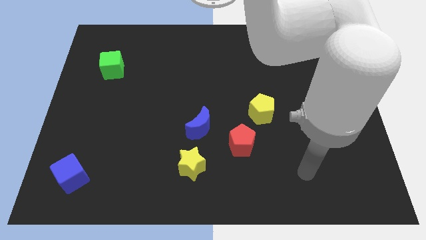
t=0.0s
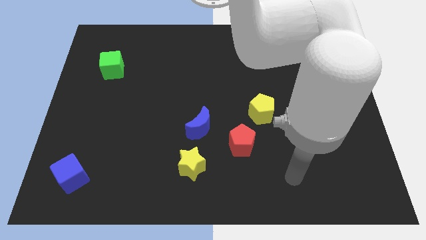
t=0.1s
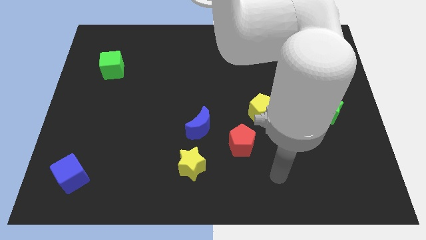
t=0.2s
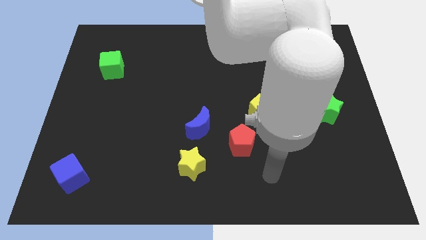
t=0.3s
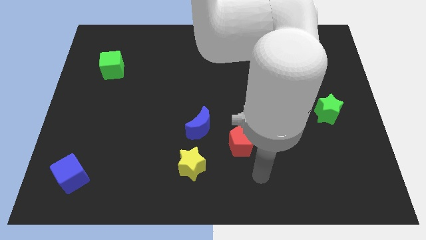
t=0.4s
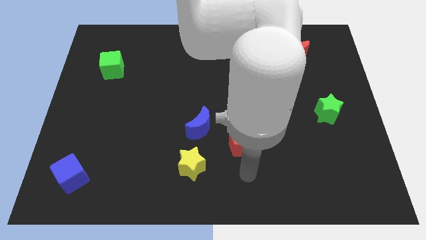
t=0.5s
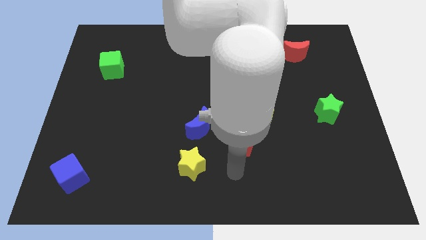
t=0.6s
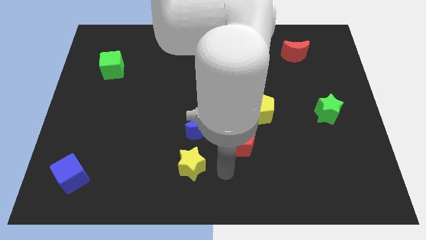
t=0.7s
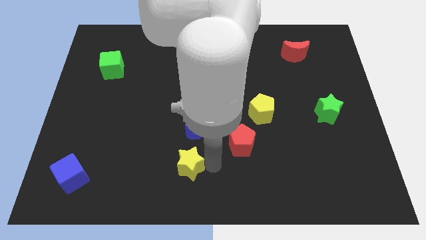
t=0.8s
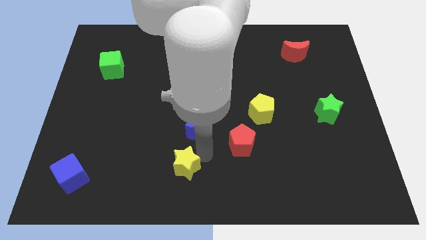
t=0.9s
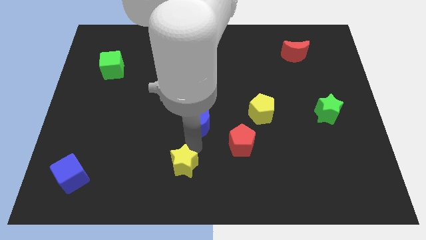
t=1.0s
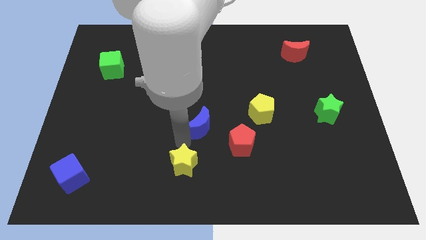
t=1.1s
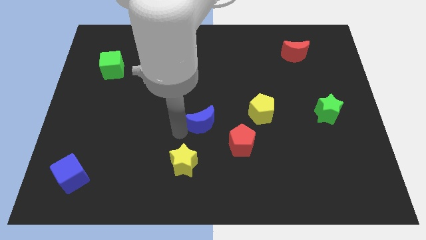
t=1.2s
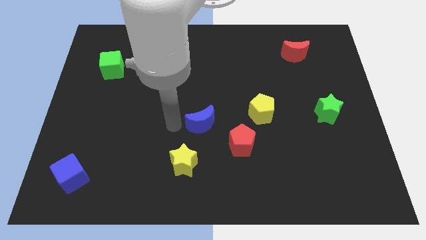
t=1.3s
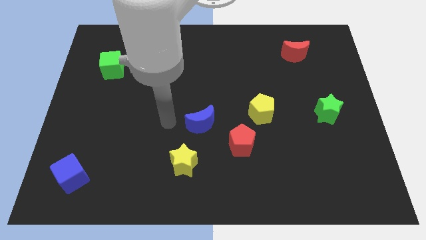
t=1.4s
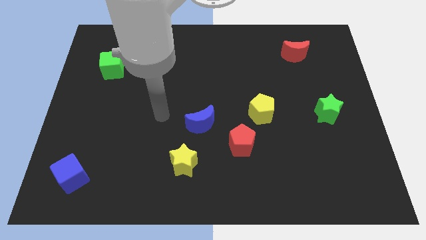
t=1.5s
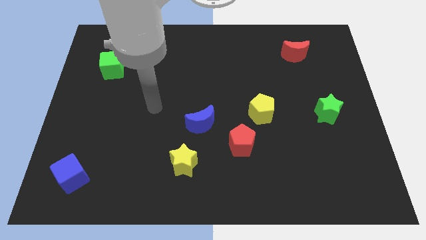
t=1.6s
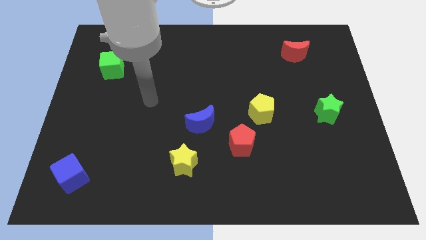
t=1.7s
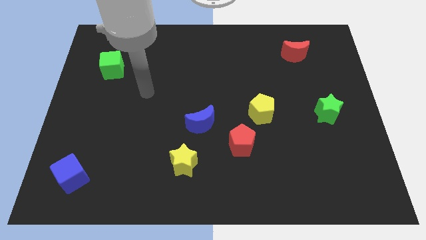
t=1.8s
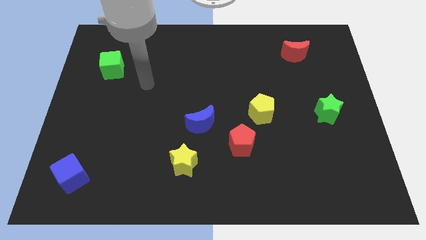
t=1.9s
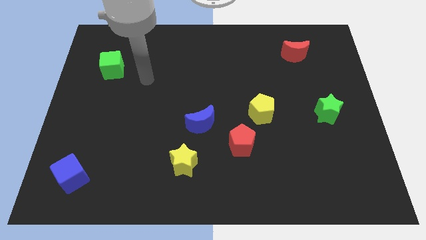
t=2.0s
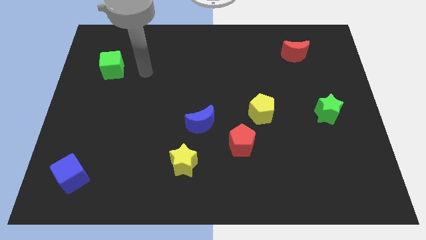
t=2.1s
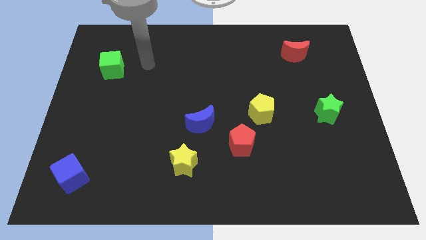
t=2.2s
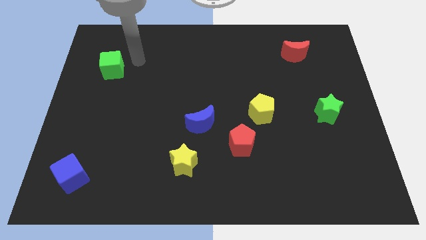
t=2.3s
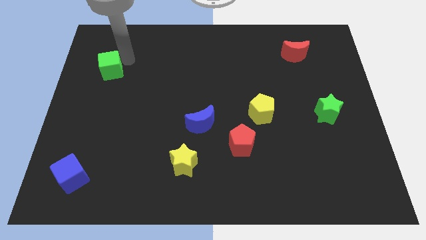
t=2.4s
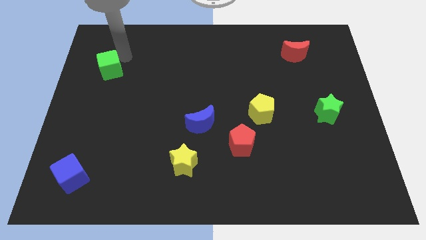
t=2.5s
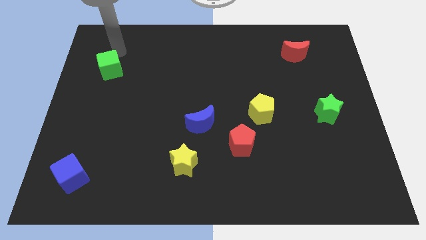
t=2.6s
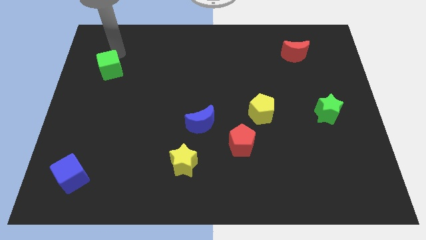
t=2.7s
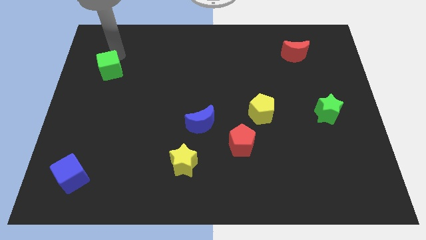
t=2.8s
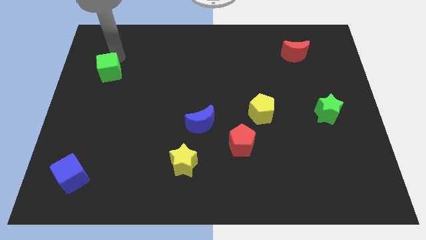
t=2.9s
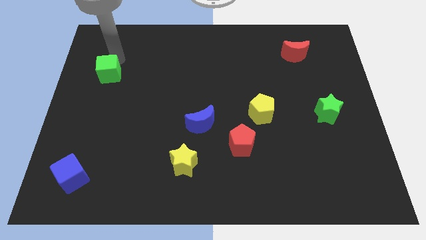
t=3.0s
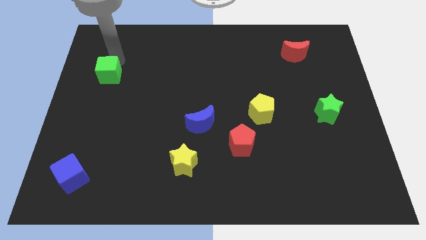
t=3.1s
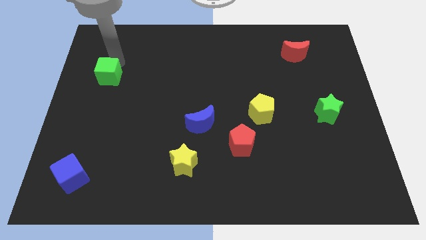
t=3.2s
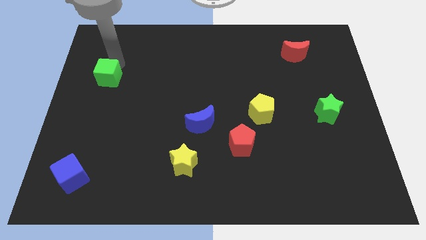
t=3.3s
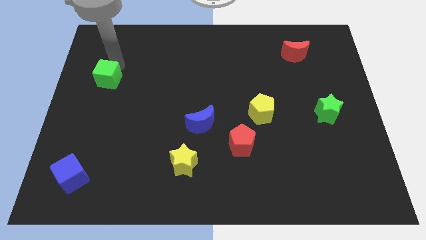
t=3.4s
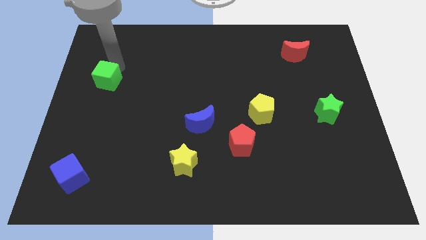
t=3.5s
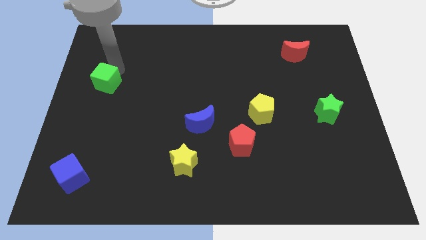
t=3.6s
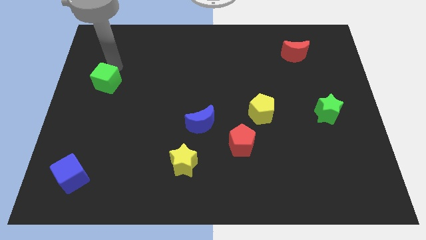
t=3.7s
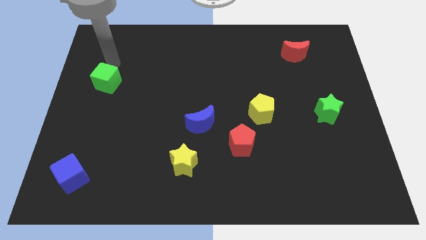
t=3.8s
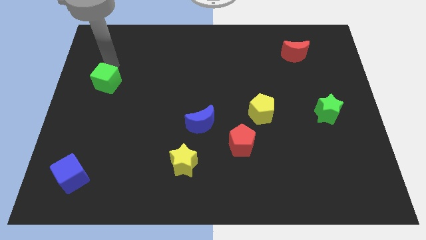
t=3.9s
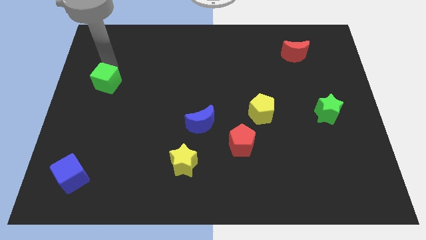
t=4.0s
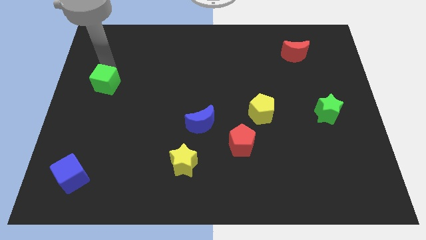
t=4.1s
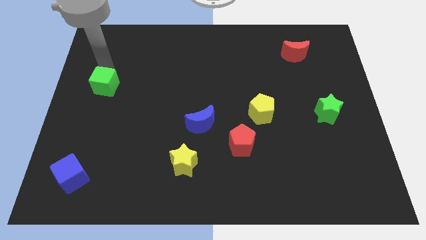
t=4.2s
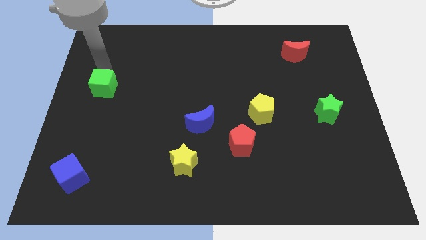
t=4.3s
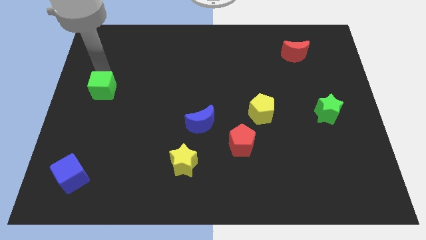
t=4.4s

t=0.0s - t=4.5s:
slightly slide the green cube downwards

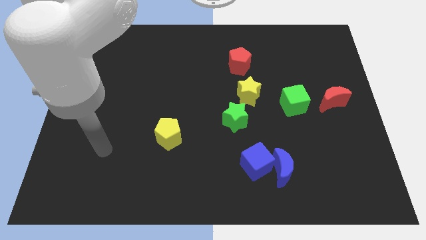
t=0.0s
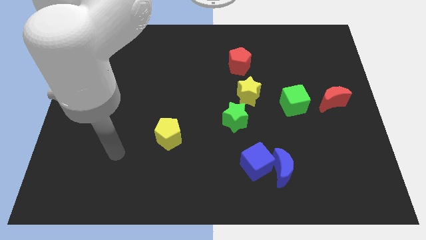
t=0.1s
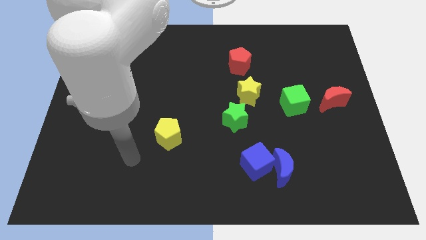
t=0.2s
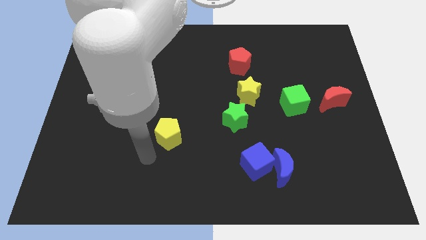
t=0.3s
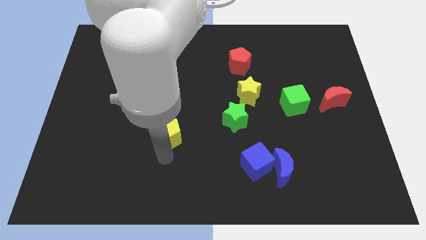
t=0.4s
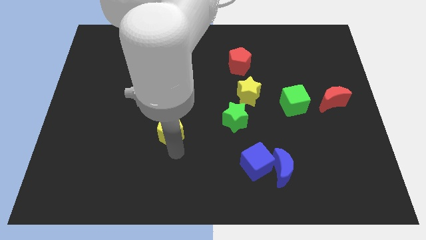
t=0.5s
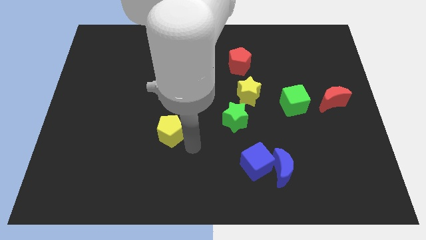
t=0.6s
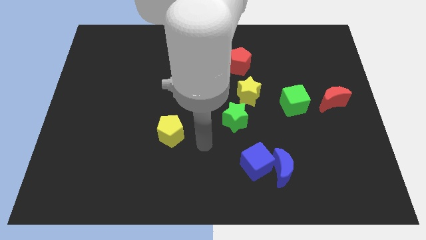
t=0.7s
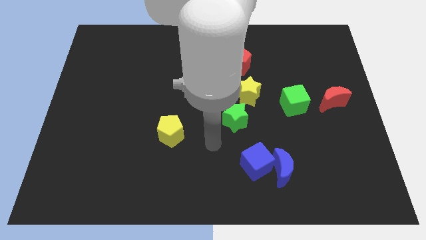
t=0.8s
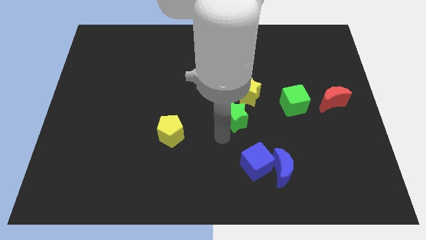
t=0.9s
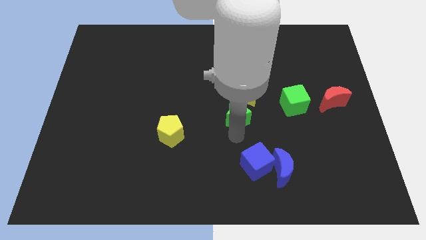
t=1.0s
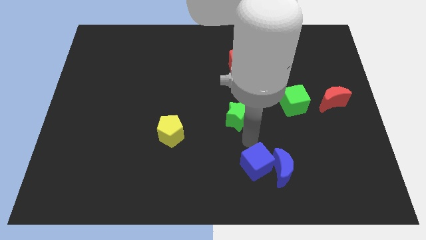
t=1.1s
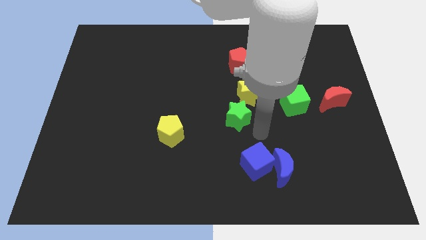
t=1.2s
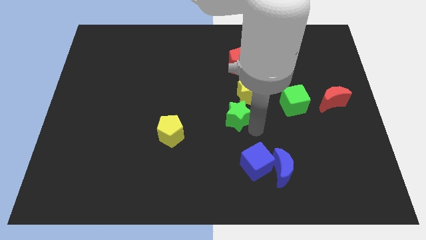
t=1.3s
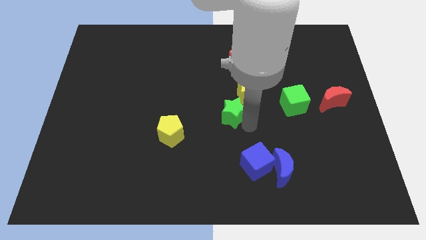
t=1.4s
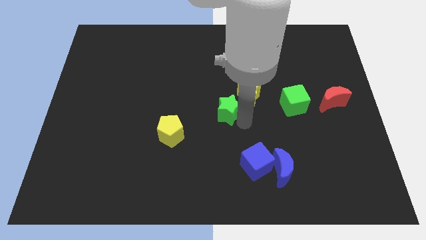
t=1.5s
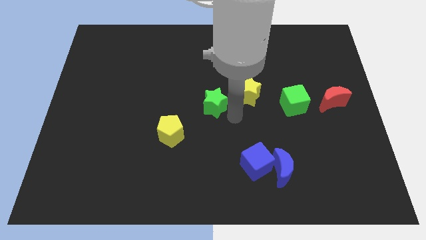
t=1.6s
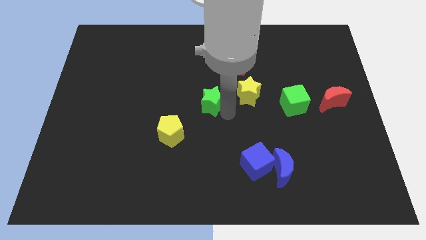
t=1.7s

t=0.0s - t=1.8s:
slightly push the green star diagonally upwards and left

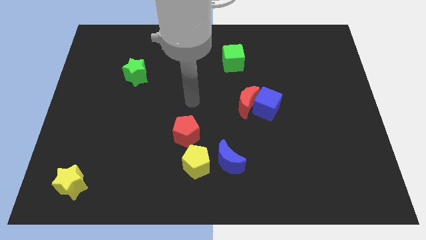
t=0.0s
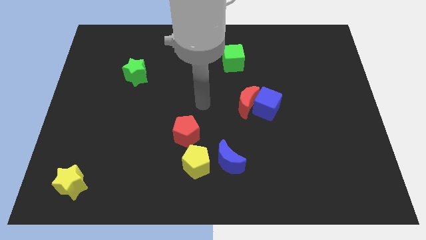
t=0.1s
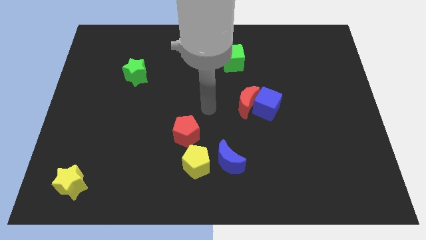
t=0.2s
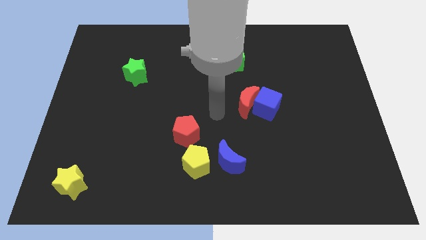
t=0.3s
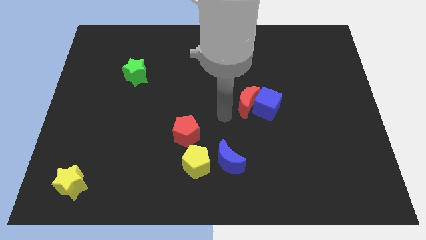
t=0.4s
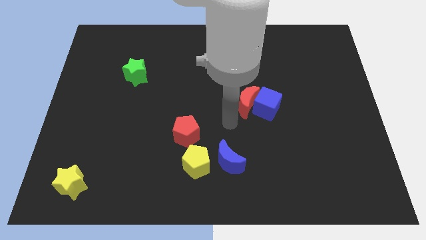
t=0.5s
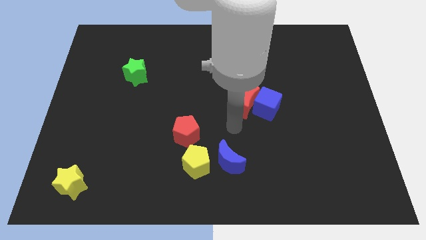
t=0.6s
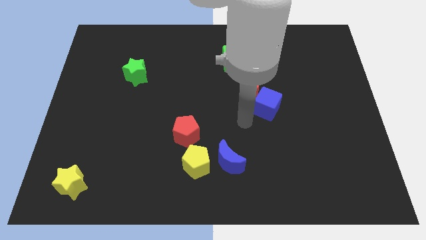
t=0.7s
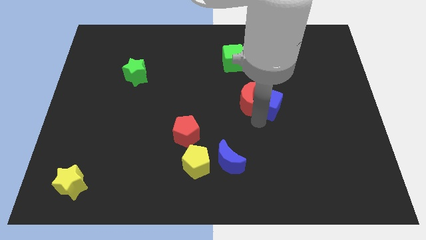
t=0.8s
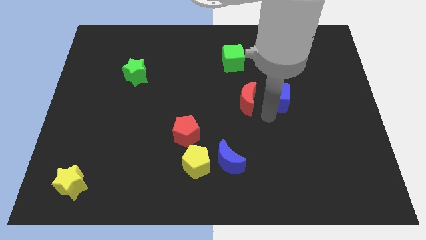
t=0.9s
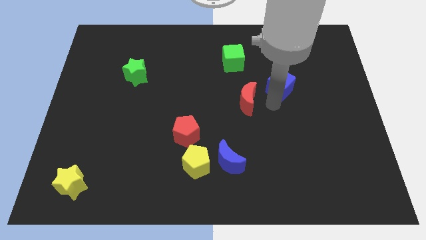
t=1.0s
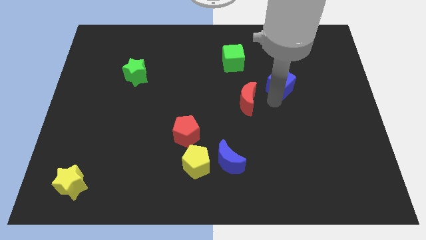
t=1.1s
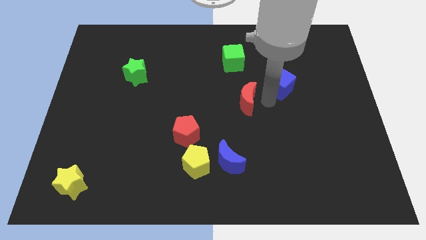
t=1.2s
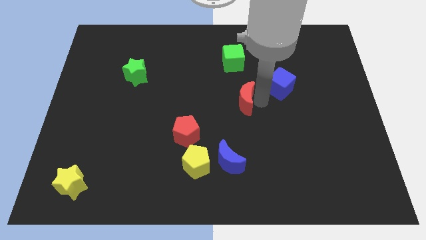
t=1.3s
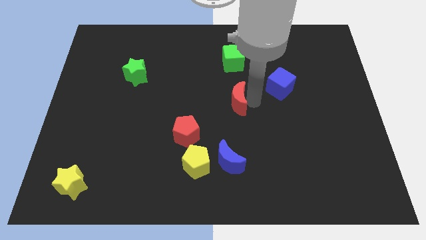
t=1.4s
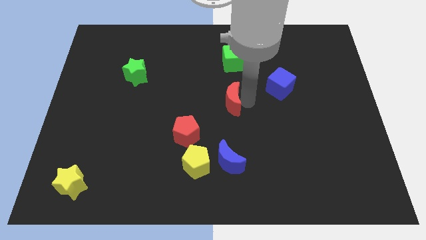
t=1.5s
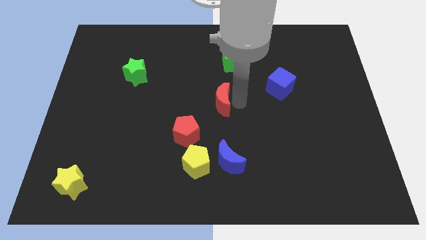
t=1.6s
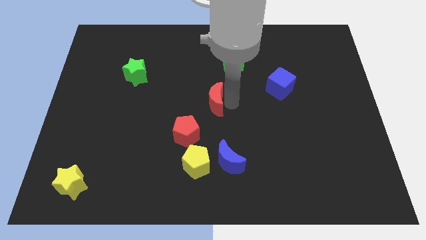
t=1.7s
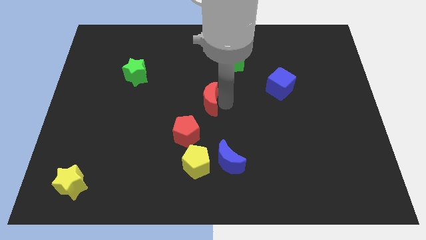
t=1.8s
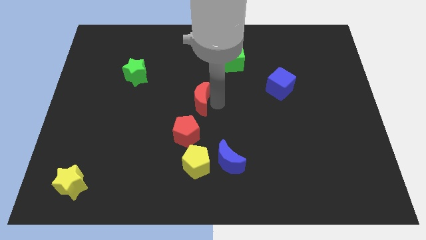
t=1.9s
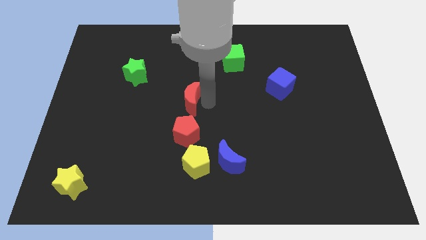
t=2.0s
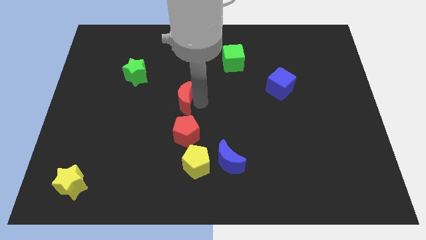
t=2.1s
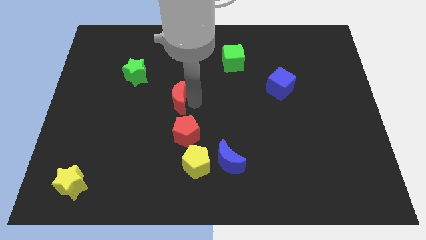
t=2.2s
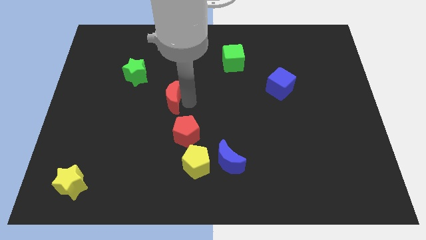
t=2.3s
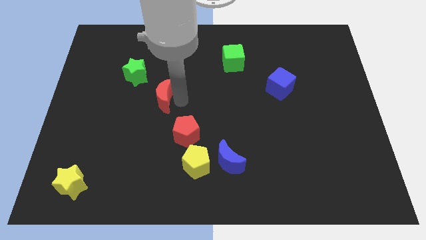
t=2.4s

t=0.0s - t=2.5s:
move the red moon to the left
